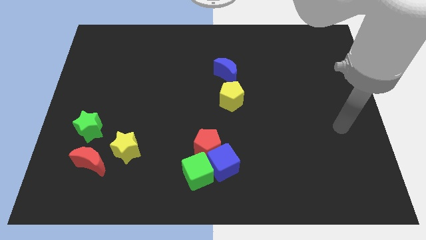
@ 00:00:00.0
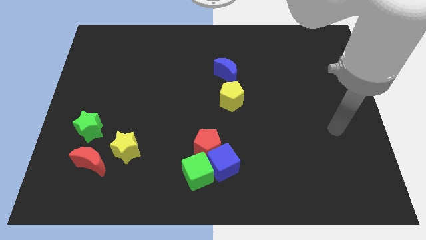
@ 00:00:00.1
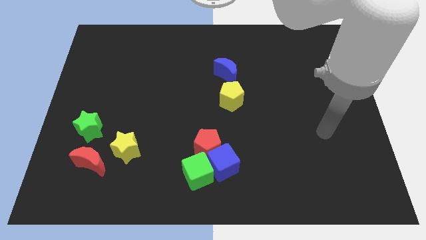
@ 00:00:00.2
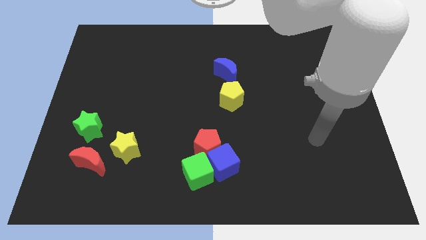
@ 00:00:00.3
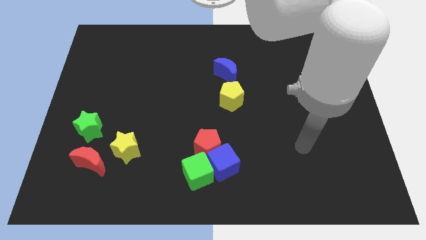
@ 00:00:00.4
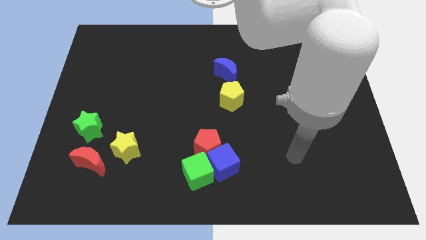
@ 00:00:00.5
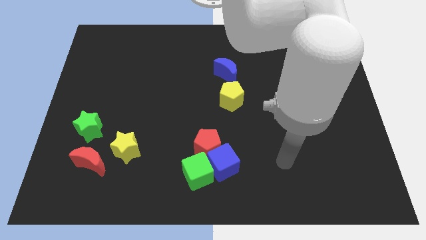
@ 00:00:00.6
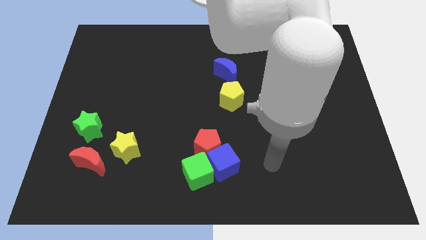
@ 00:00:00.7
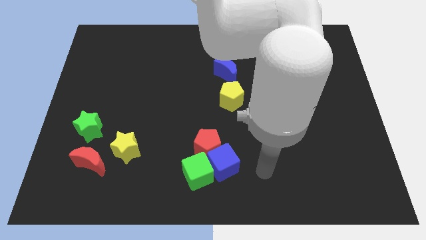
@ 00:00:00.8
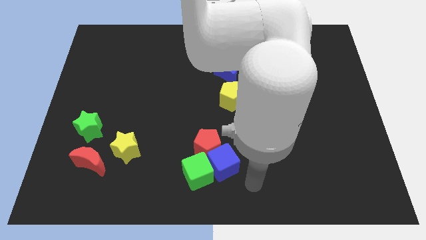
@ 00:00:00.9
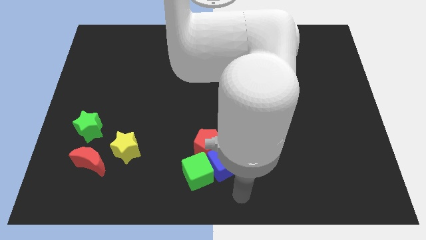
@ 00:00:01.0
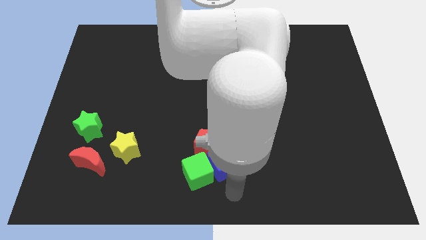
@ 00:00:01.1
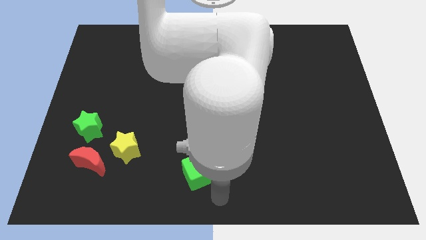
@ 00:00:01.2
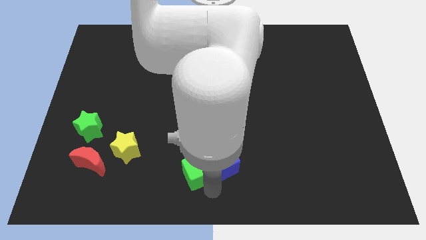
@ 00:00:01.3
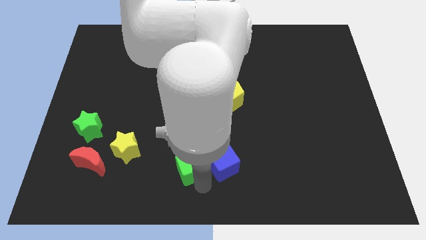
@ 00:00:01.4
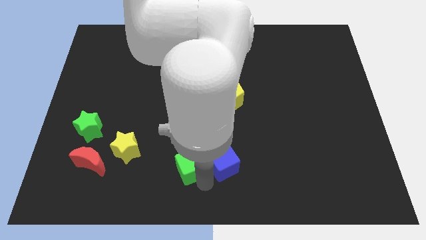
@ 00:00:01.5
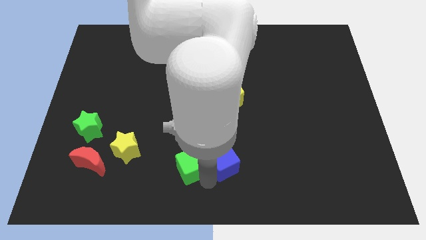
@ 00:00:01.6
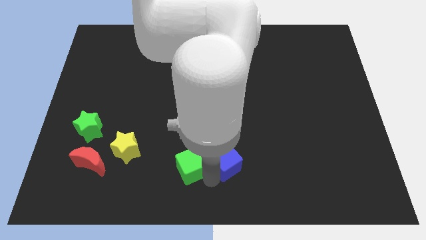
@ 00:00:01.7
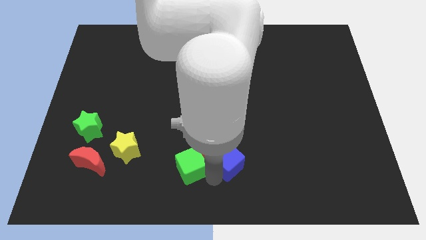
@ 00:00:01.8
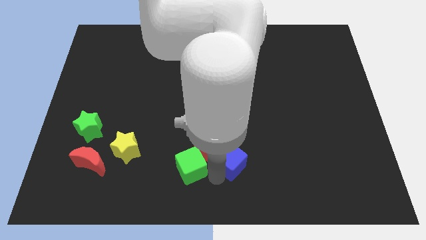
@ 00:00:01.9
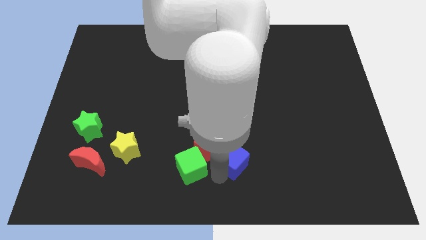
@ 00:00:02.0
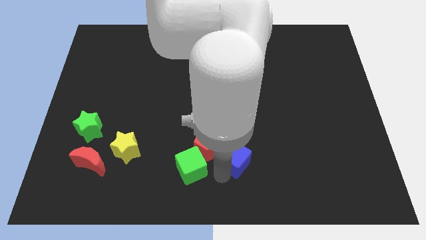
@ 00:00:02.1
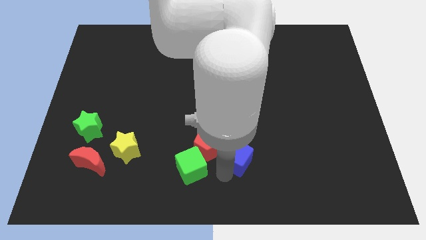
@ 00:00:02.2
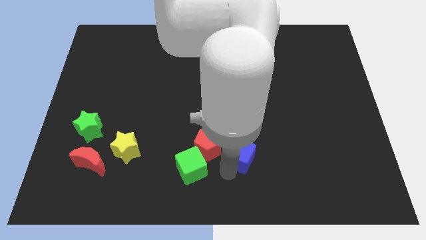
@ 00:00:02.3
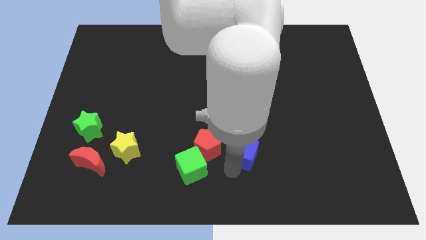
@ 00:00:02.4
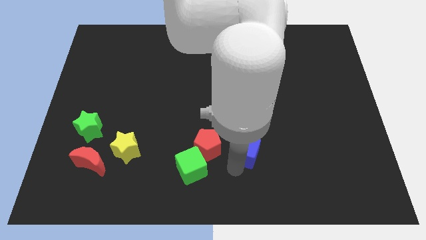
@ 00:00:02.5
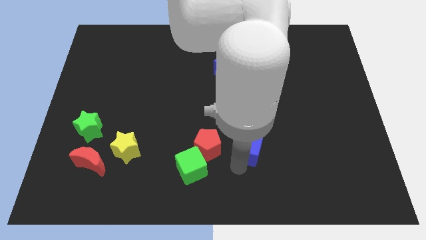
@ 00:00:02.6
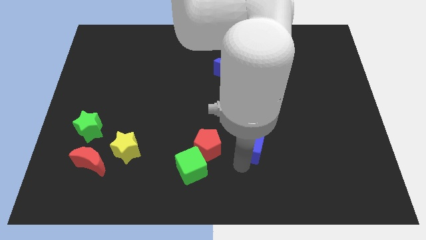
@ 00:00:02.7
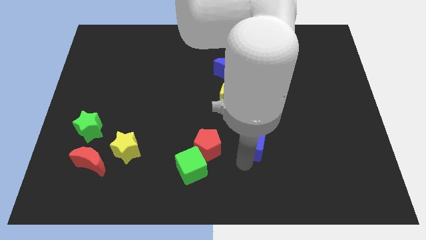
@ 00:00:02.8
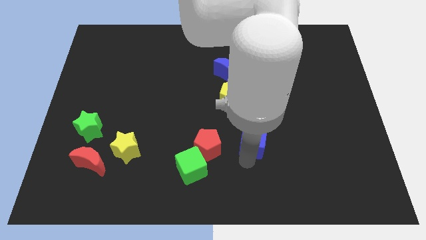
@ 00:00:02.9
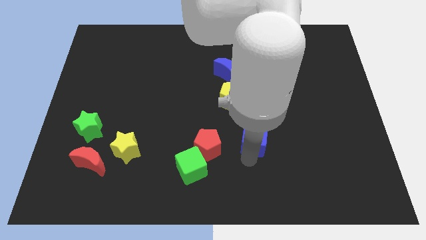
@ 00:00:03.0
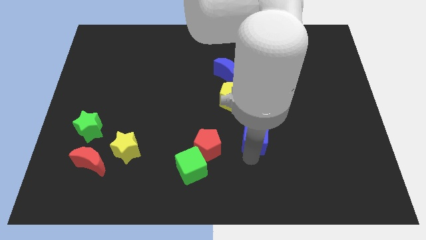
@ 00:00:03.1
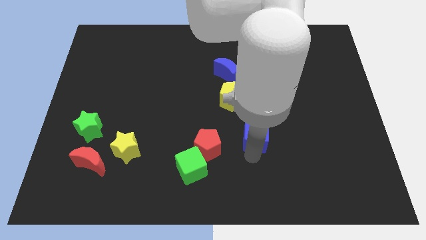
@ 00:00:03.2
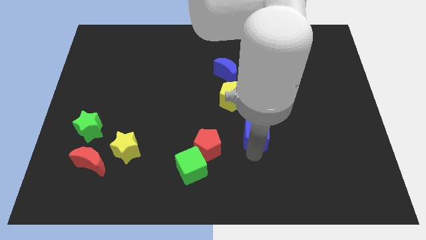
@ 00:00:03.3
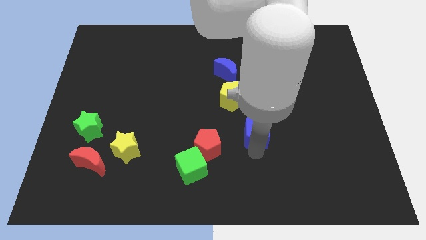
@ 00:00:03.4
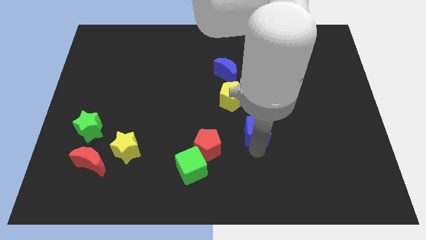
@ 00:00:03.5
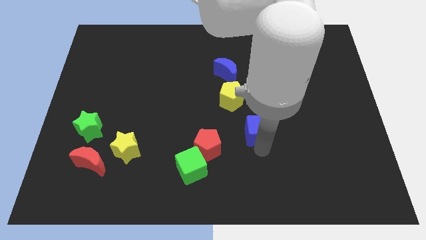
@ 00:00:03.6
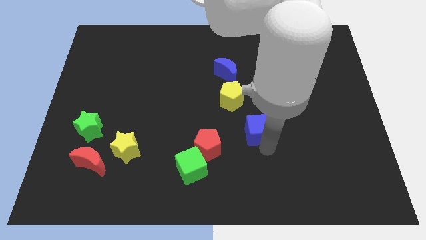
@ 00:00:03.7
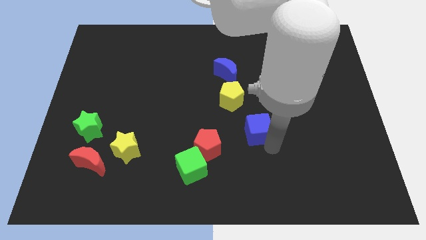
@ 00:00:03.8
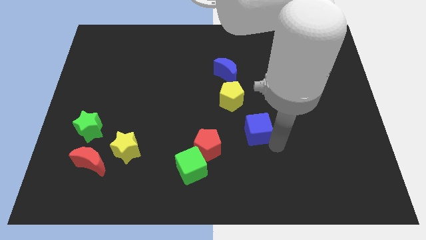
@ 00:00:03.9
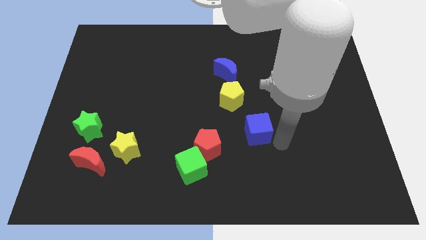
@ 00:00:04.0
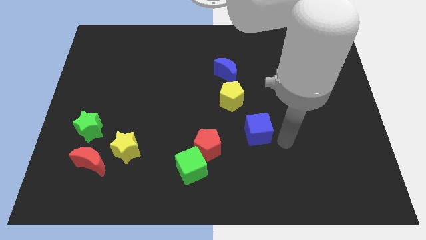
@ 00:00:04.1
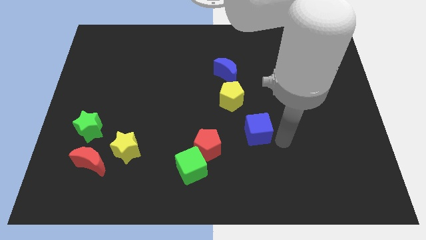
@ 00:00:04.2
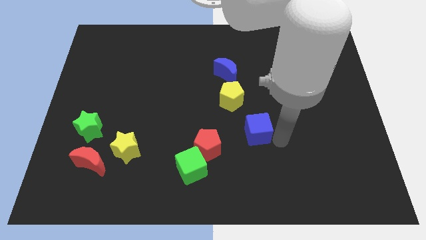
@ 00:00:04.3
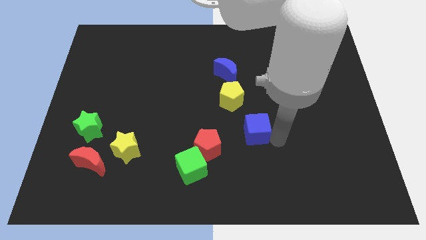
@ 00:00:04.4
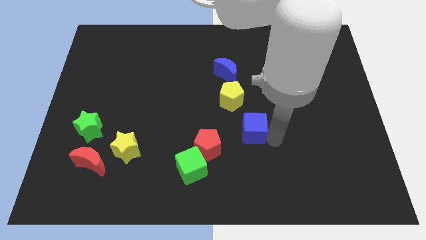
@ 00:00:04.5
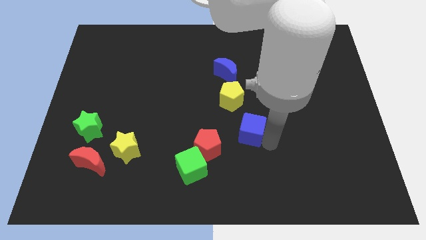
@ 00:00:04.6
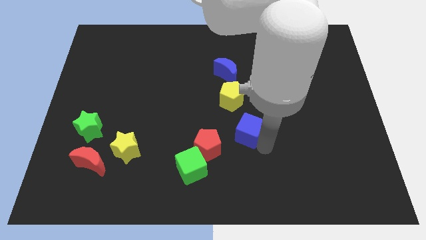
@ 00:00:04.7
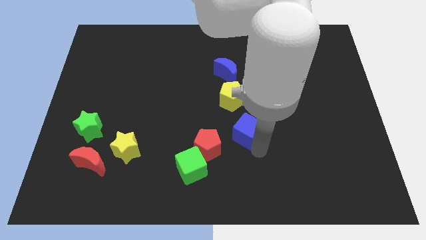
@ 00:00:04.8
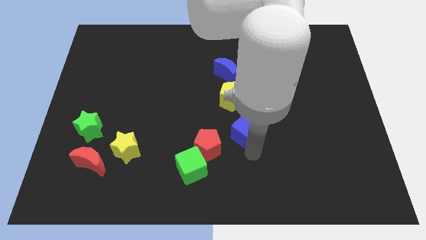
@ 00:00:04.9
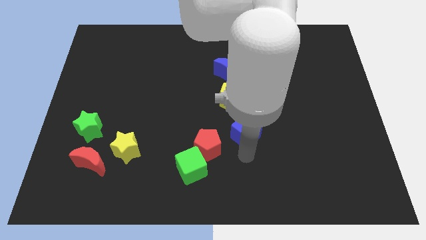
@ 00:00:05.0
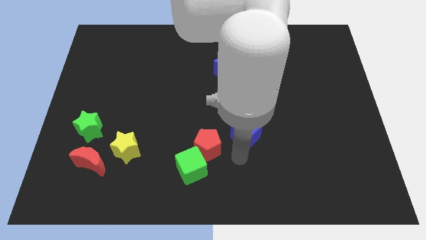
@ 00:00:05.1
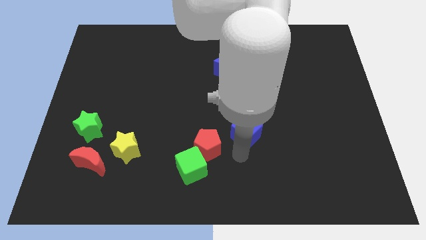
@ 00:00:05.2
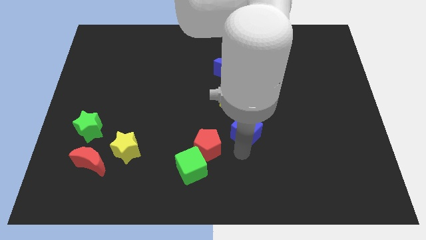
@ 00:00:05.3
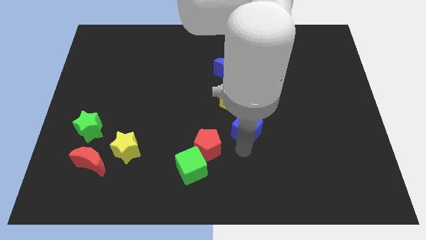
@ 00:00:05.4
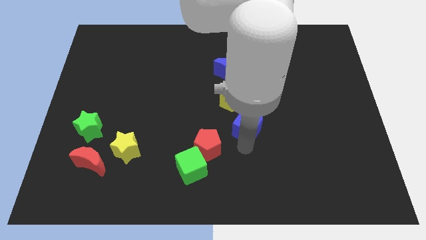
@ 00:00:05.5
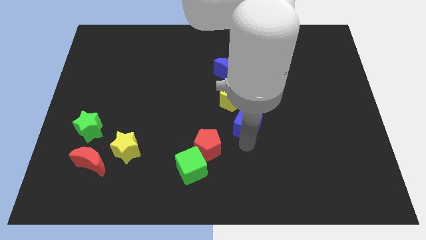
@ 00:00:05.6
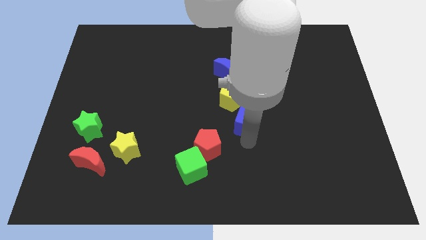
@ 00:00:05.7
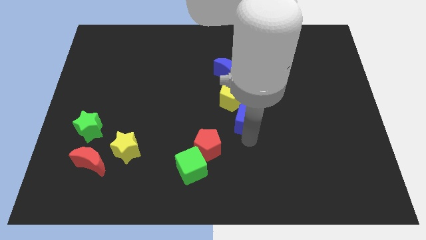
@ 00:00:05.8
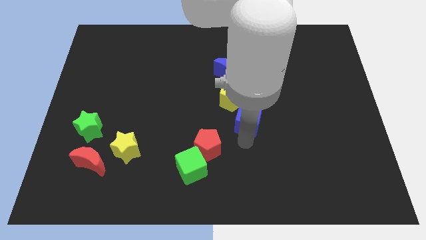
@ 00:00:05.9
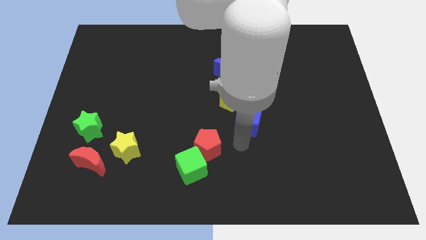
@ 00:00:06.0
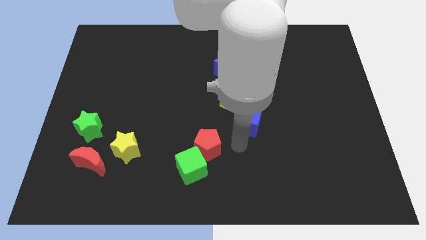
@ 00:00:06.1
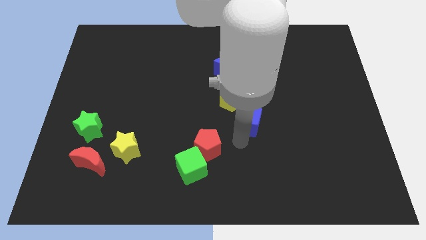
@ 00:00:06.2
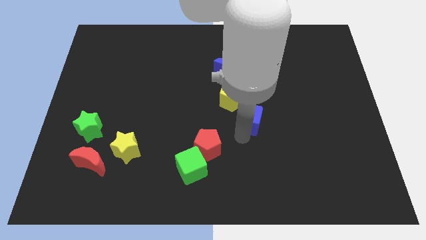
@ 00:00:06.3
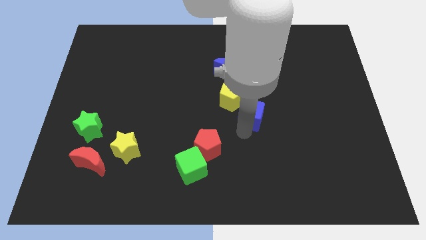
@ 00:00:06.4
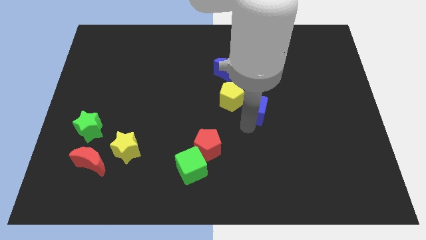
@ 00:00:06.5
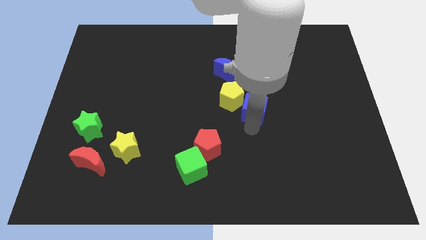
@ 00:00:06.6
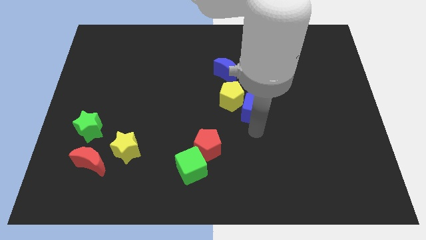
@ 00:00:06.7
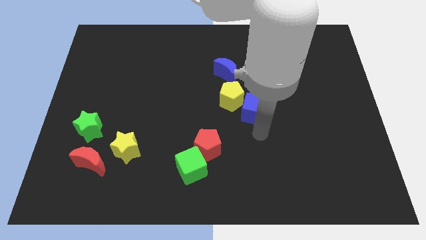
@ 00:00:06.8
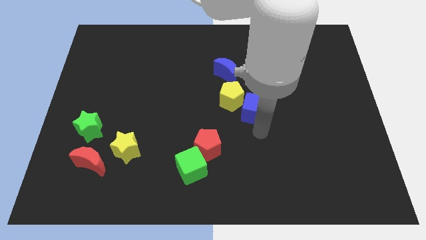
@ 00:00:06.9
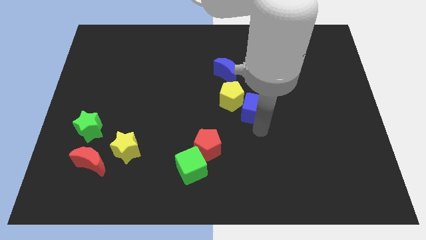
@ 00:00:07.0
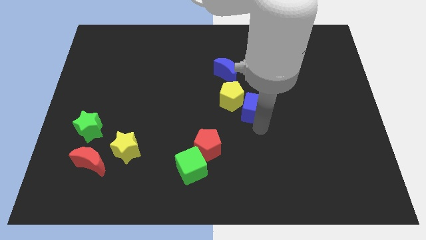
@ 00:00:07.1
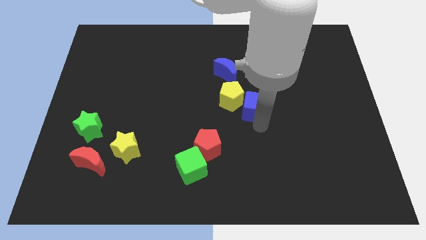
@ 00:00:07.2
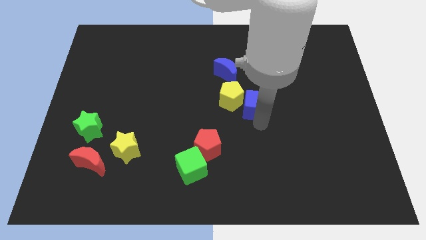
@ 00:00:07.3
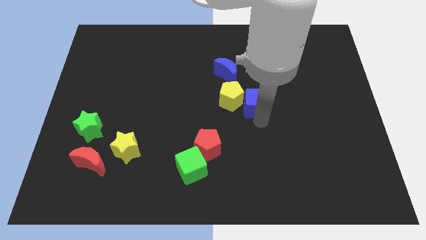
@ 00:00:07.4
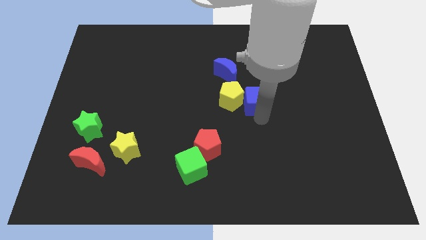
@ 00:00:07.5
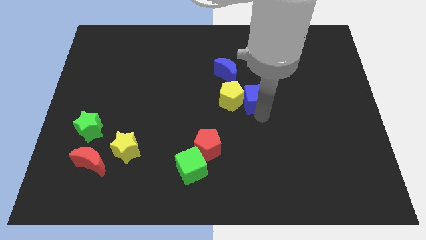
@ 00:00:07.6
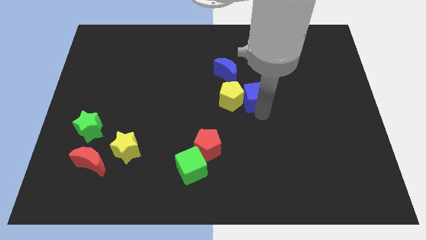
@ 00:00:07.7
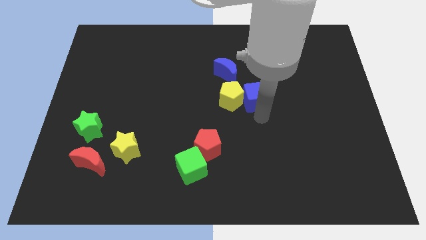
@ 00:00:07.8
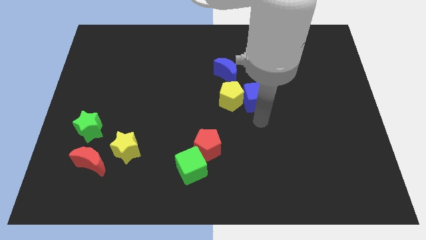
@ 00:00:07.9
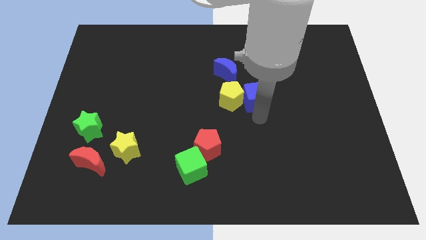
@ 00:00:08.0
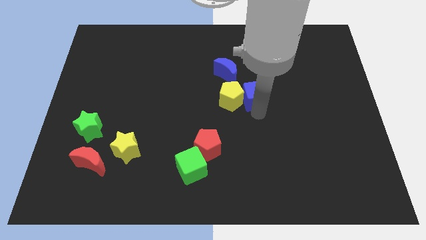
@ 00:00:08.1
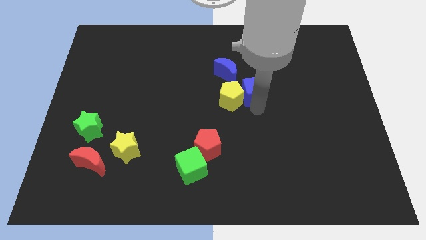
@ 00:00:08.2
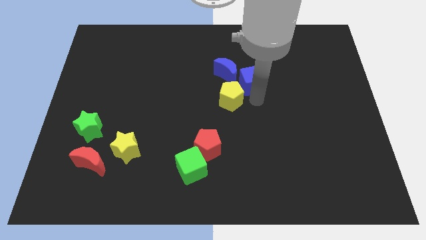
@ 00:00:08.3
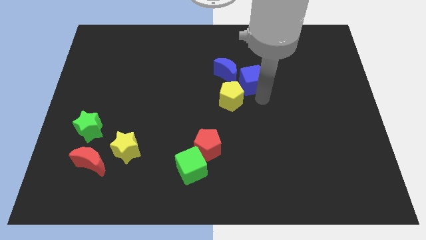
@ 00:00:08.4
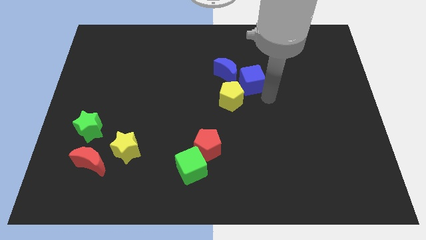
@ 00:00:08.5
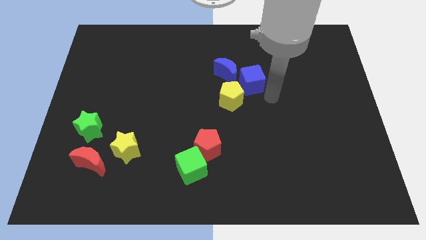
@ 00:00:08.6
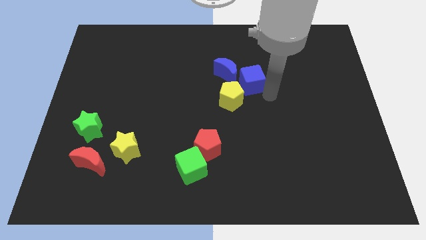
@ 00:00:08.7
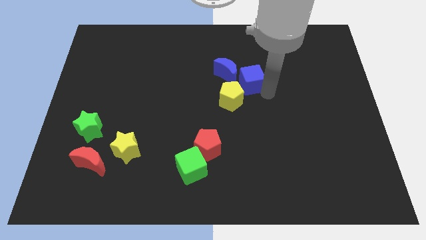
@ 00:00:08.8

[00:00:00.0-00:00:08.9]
move the blue cube to the top side of the yellow pentagon
